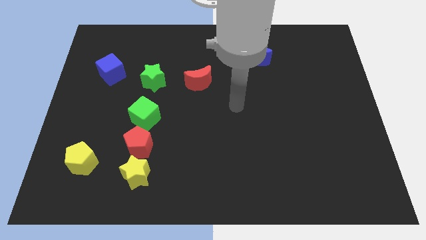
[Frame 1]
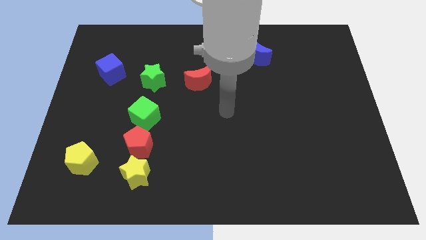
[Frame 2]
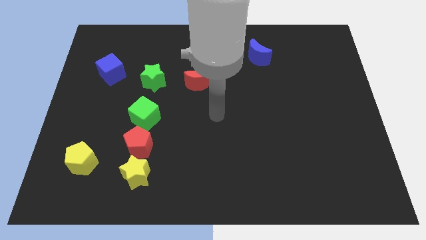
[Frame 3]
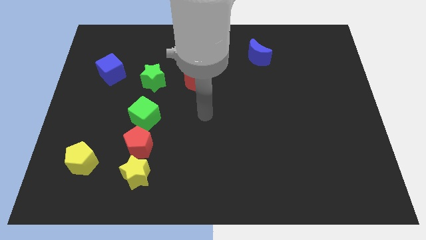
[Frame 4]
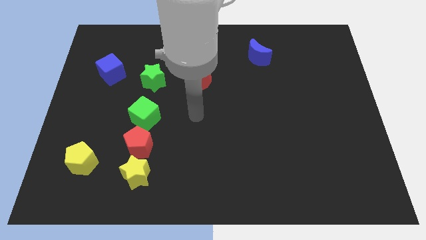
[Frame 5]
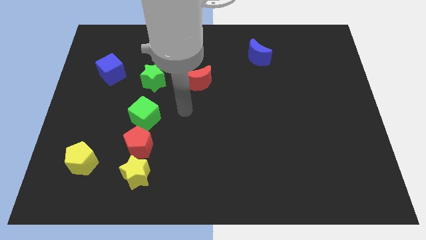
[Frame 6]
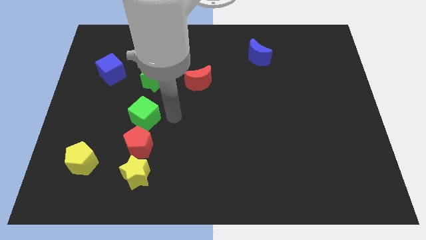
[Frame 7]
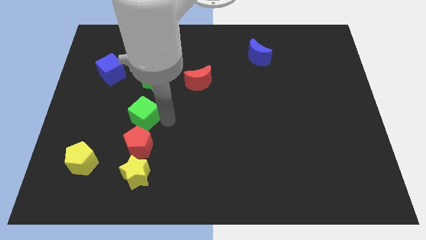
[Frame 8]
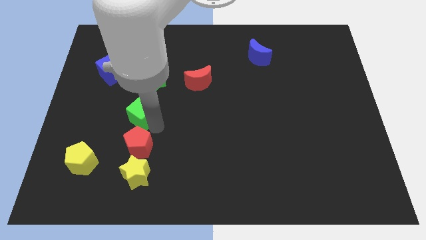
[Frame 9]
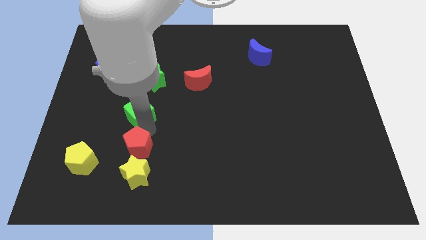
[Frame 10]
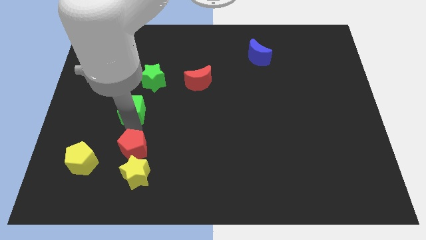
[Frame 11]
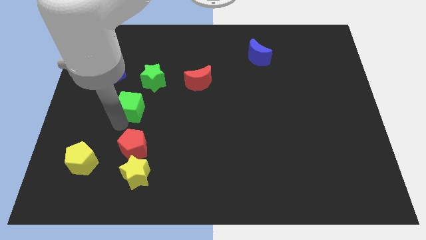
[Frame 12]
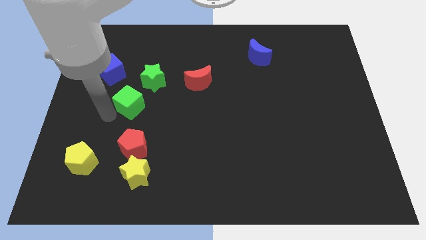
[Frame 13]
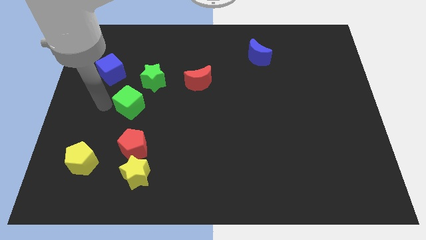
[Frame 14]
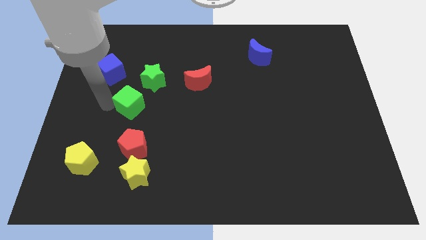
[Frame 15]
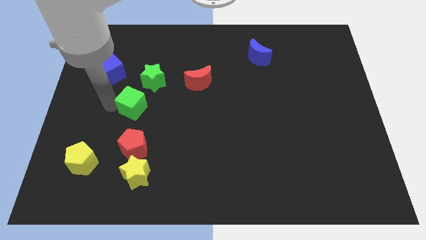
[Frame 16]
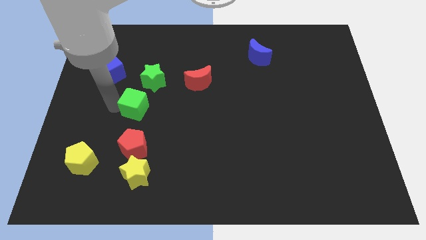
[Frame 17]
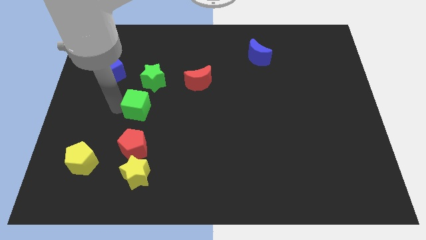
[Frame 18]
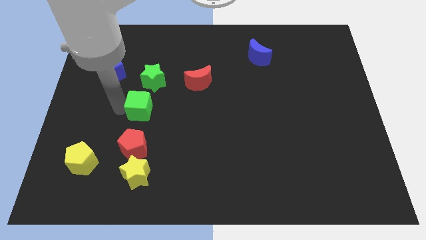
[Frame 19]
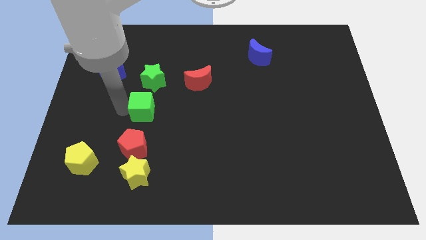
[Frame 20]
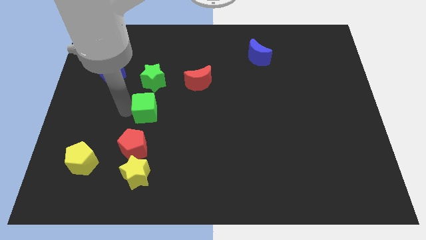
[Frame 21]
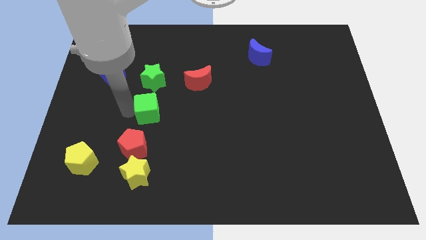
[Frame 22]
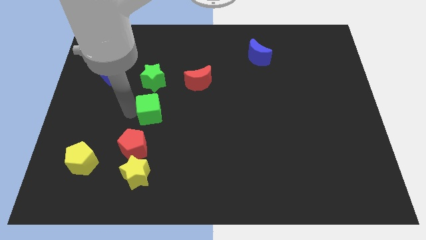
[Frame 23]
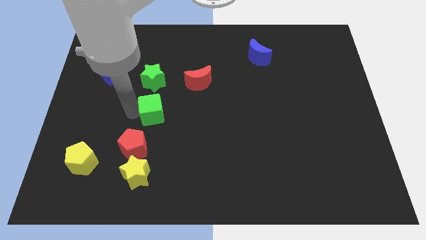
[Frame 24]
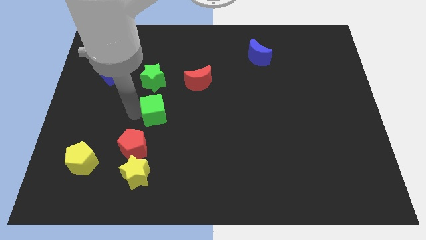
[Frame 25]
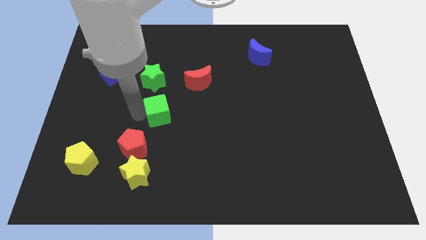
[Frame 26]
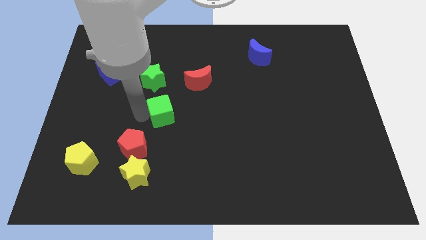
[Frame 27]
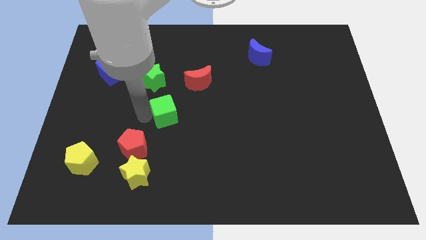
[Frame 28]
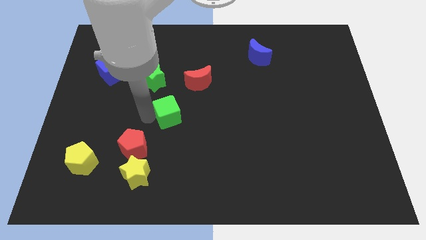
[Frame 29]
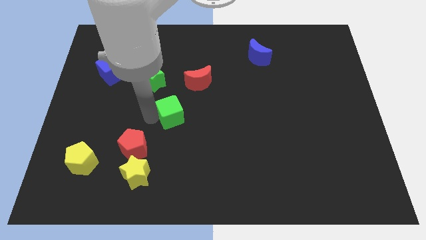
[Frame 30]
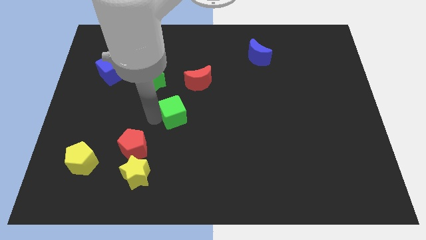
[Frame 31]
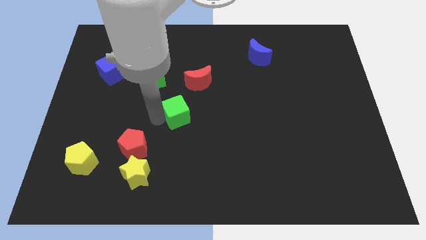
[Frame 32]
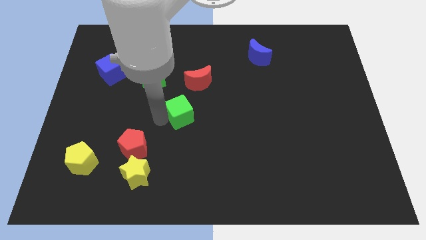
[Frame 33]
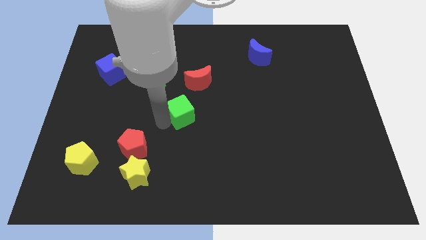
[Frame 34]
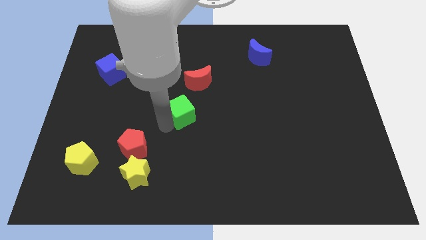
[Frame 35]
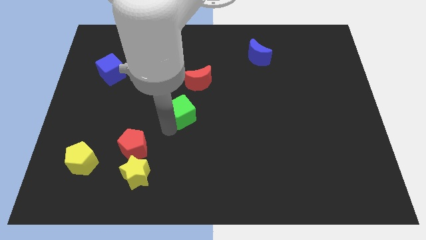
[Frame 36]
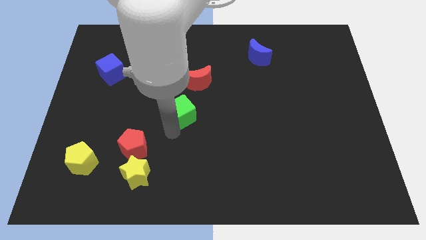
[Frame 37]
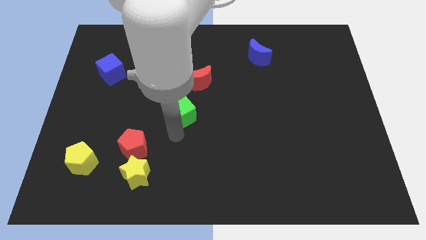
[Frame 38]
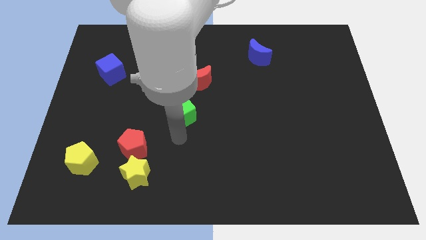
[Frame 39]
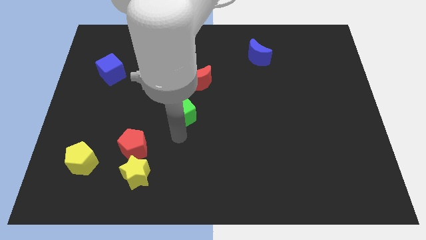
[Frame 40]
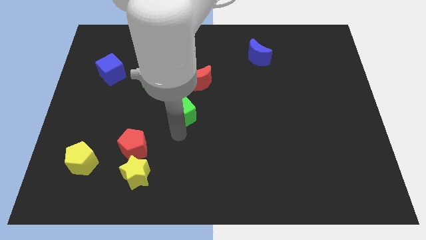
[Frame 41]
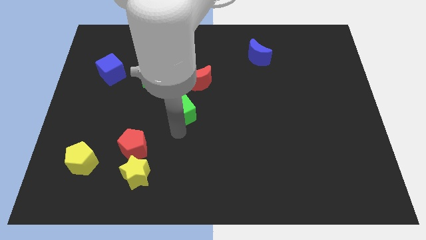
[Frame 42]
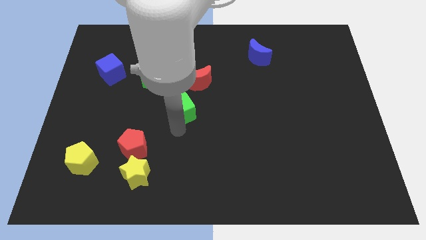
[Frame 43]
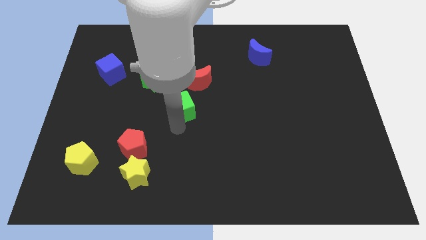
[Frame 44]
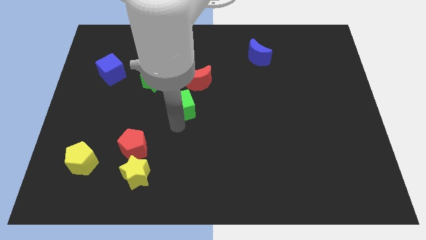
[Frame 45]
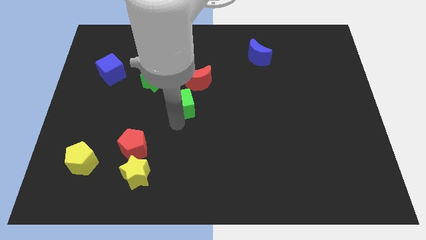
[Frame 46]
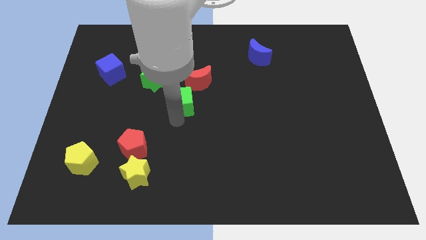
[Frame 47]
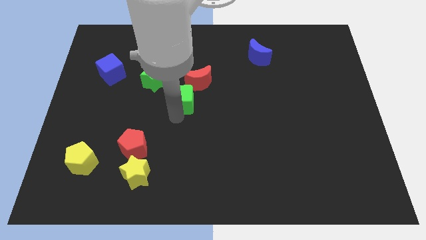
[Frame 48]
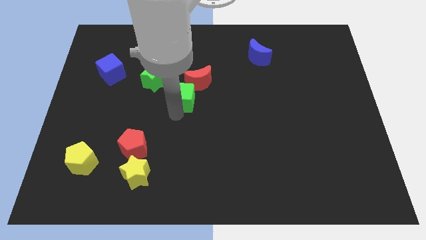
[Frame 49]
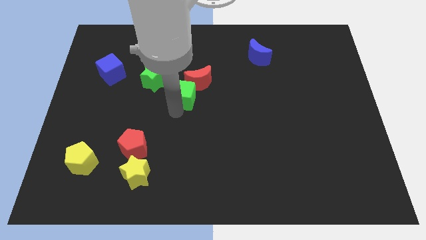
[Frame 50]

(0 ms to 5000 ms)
put the green cube next to the red moon

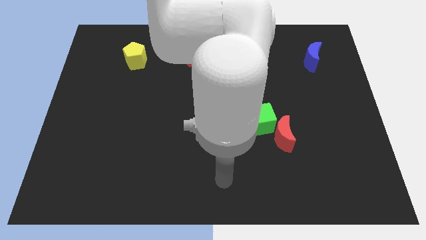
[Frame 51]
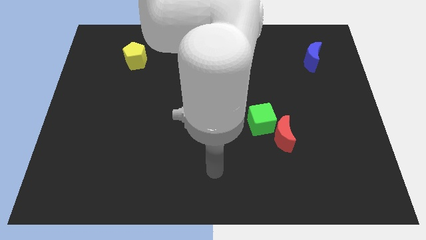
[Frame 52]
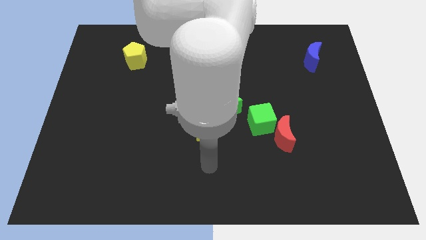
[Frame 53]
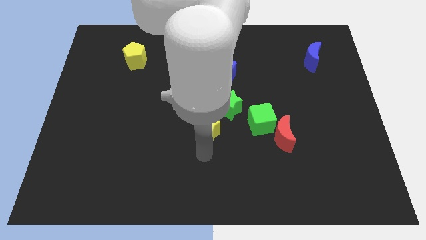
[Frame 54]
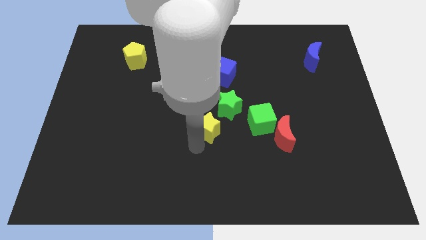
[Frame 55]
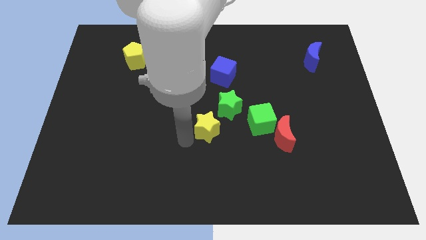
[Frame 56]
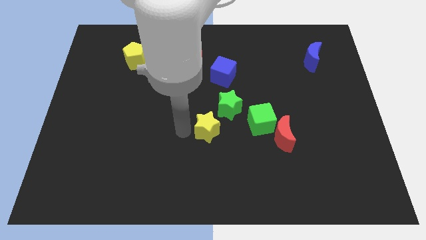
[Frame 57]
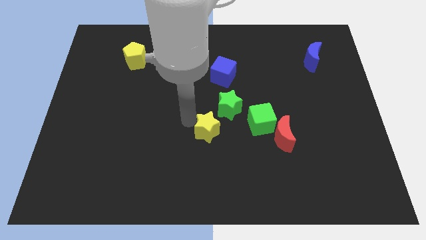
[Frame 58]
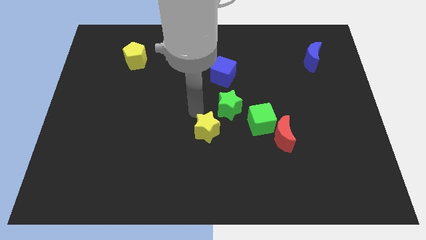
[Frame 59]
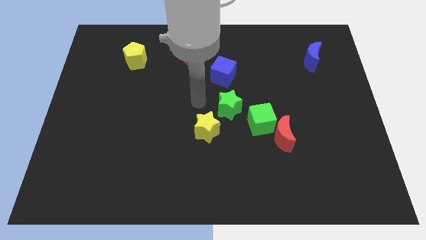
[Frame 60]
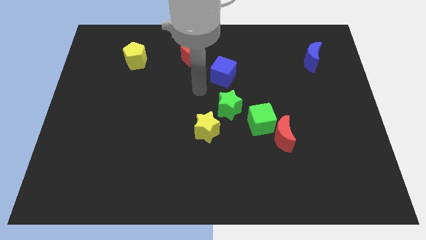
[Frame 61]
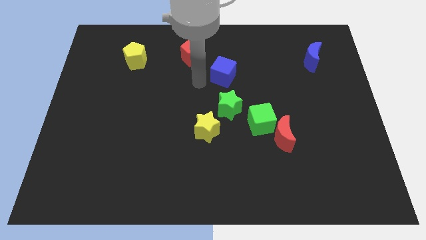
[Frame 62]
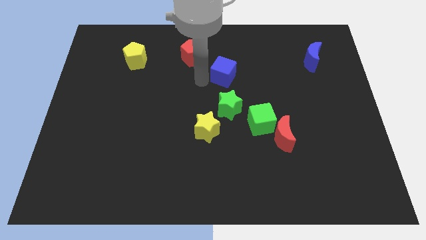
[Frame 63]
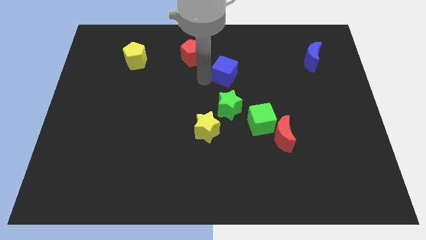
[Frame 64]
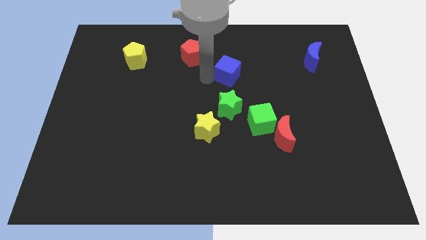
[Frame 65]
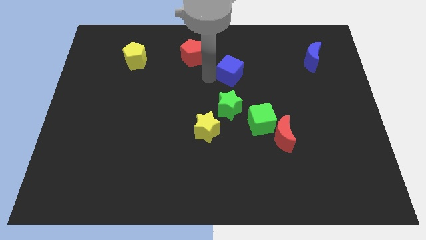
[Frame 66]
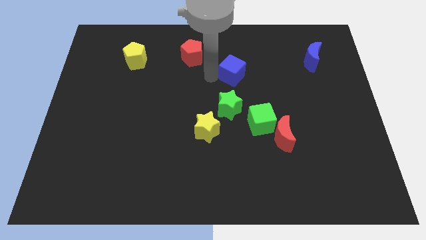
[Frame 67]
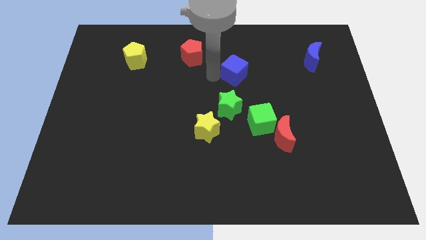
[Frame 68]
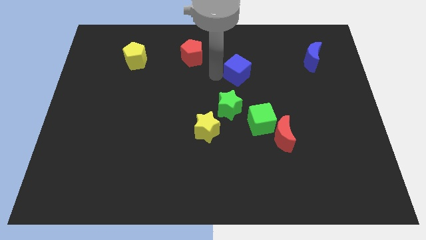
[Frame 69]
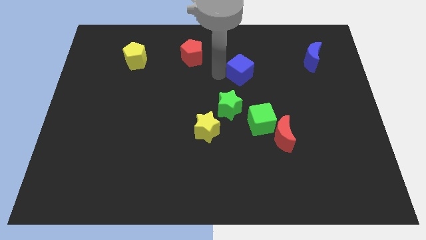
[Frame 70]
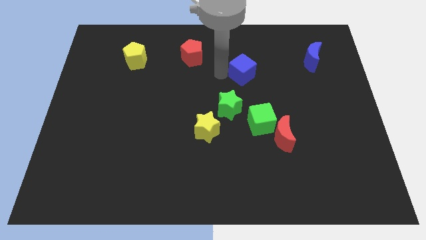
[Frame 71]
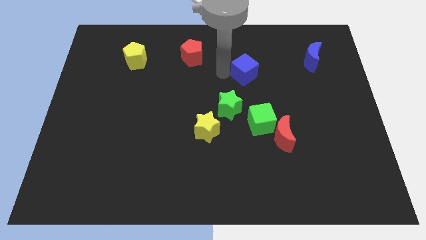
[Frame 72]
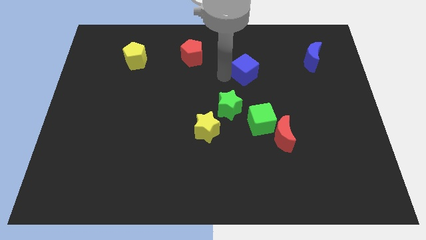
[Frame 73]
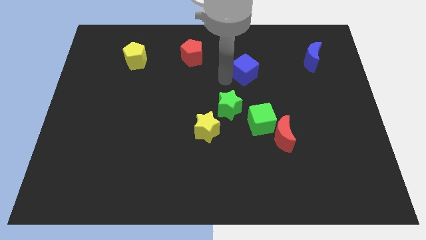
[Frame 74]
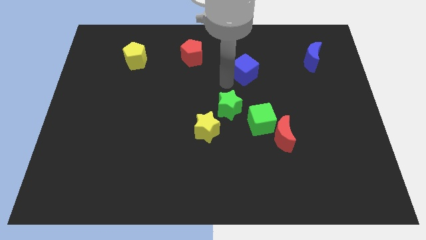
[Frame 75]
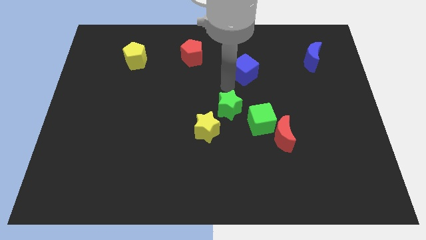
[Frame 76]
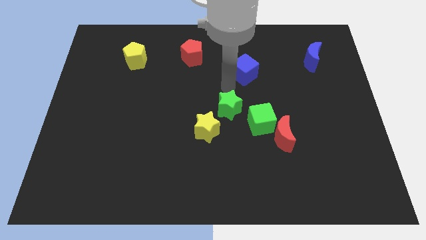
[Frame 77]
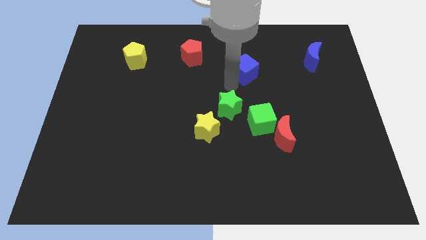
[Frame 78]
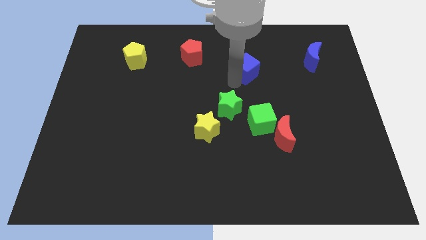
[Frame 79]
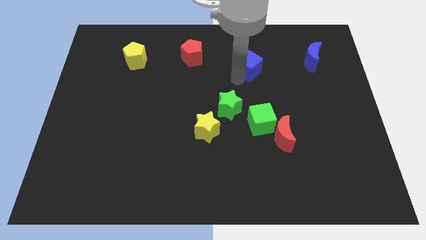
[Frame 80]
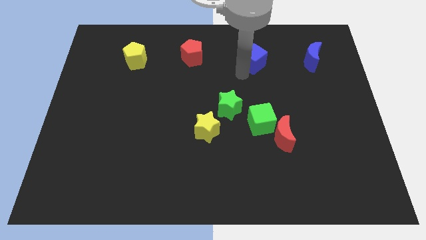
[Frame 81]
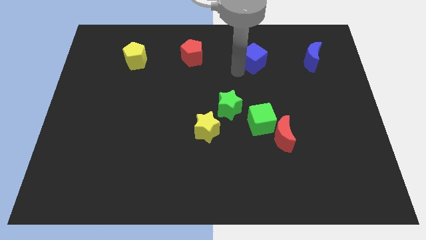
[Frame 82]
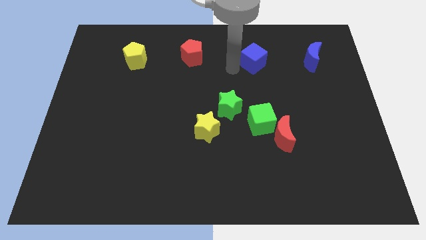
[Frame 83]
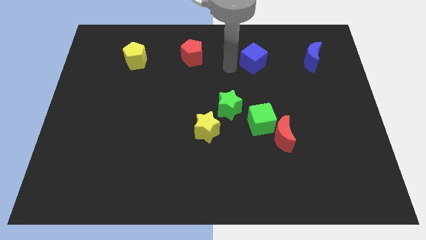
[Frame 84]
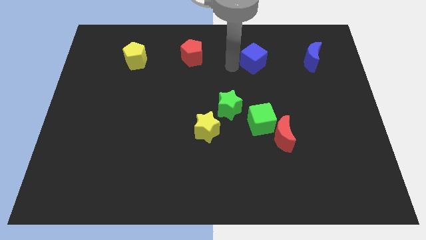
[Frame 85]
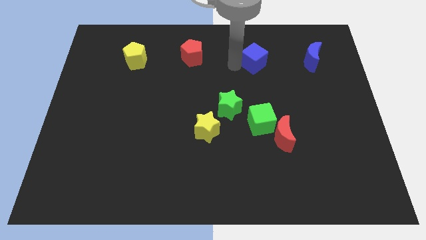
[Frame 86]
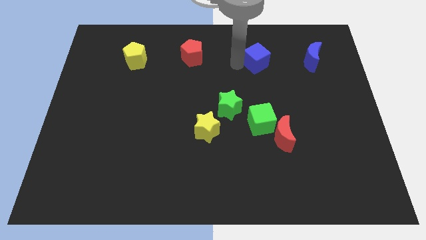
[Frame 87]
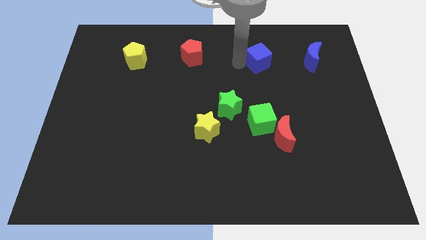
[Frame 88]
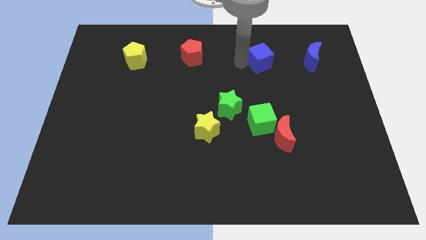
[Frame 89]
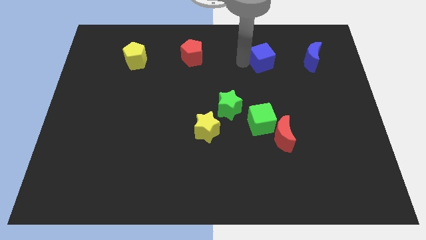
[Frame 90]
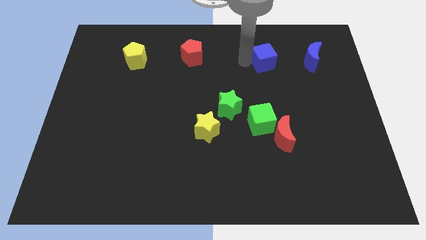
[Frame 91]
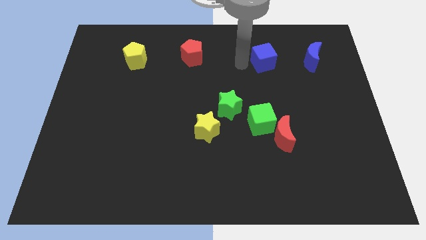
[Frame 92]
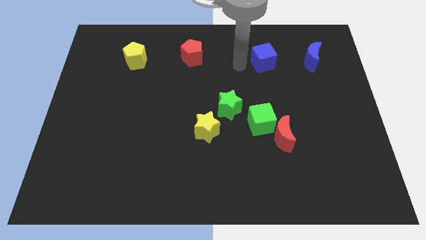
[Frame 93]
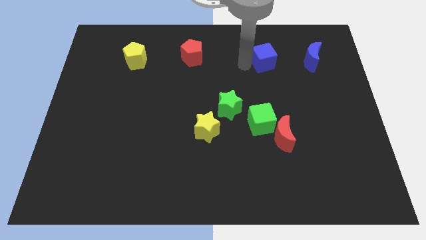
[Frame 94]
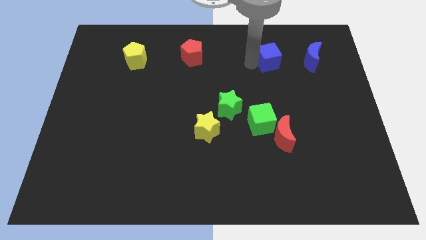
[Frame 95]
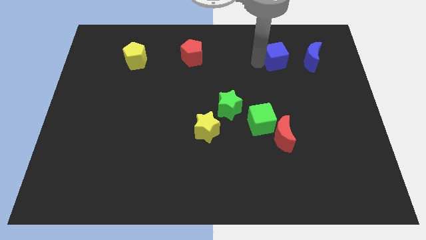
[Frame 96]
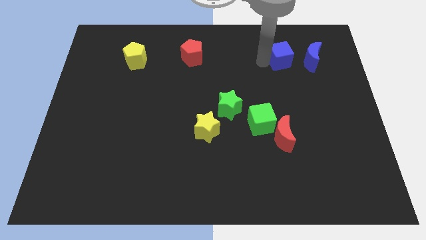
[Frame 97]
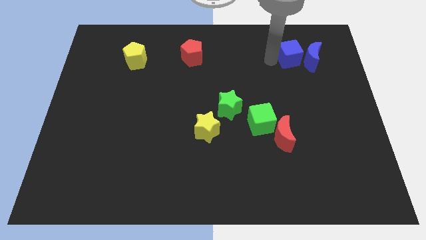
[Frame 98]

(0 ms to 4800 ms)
move the blue cube next to the blue moon
